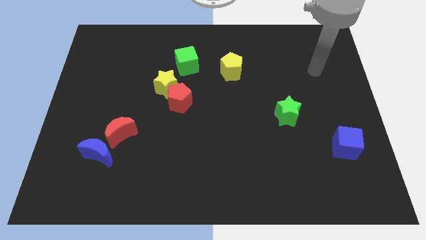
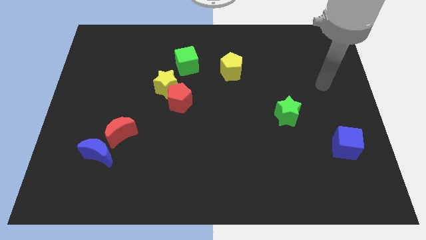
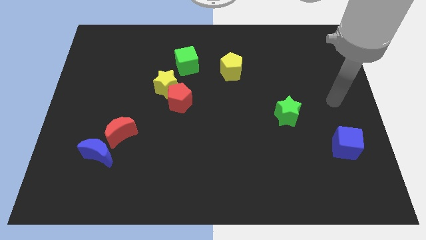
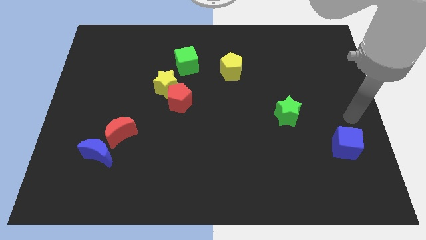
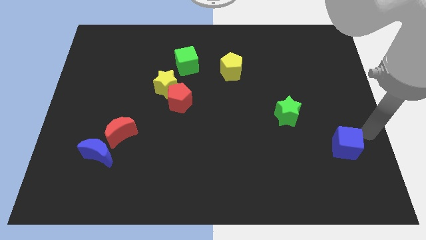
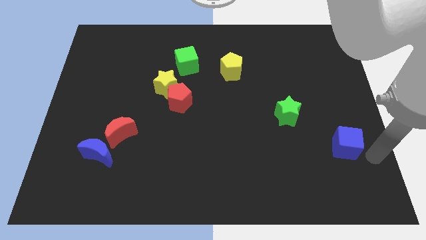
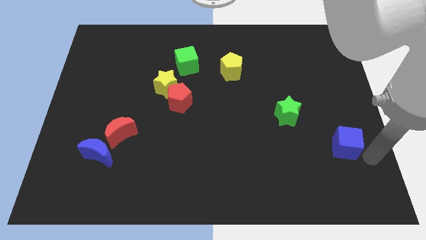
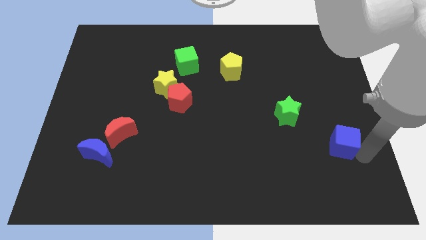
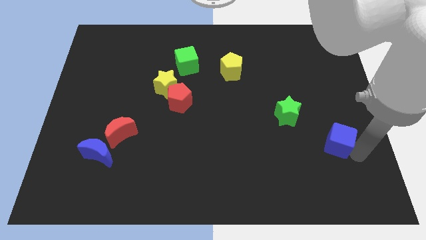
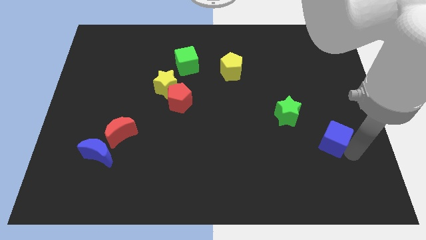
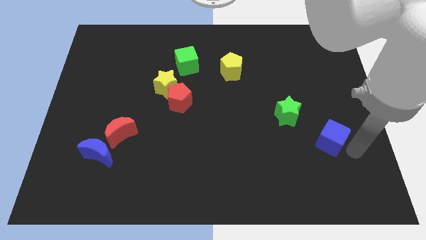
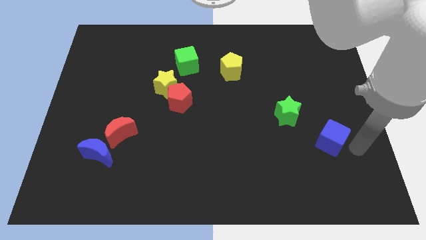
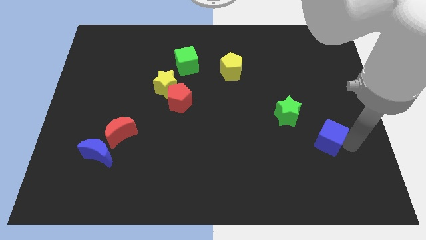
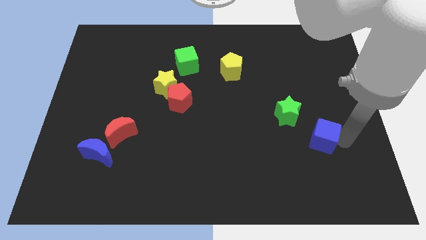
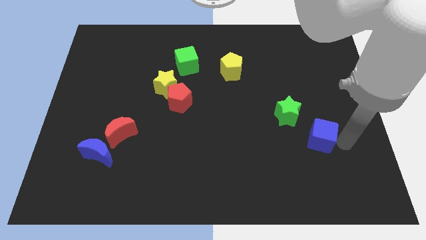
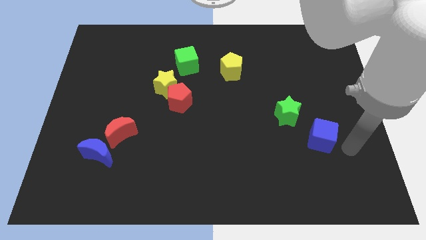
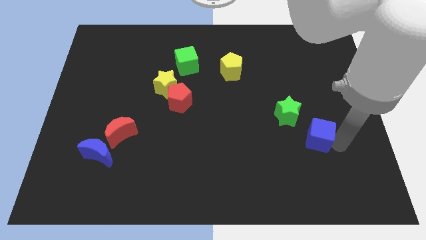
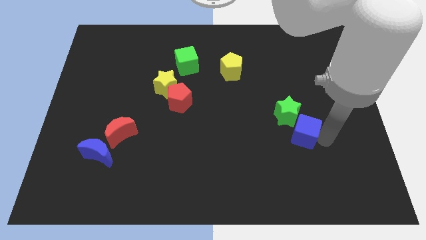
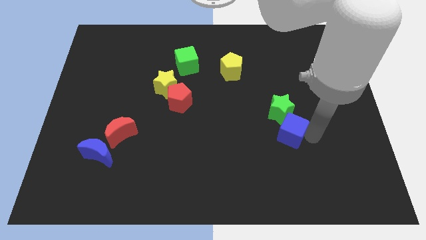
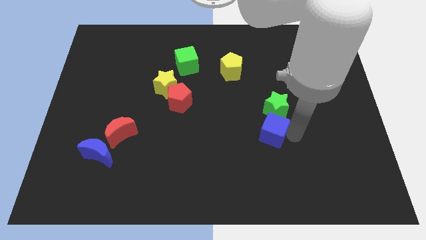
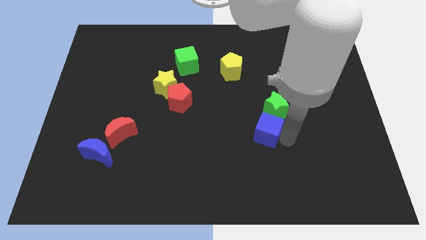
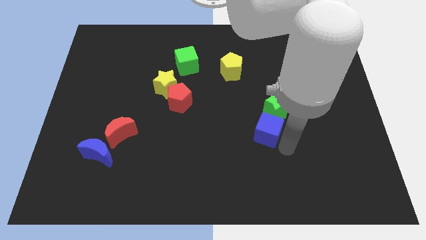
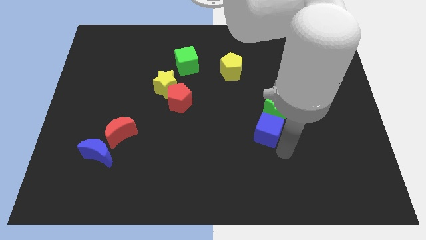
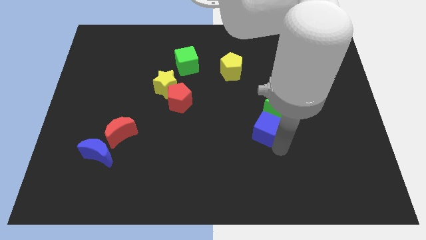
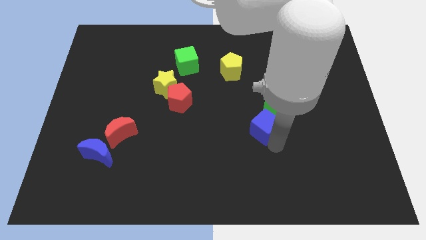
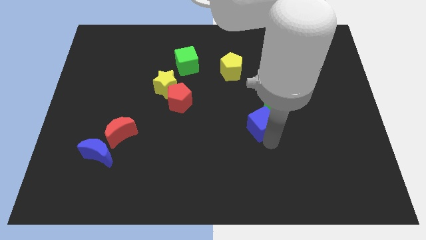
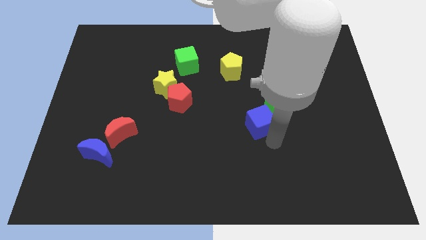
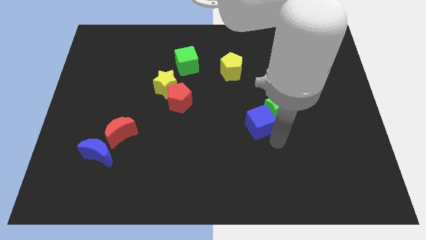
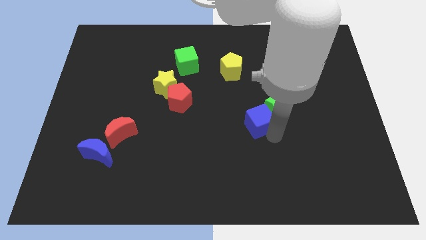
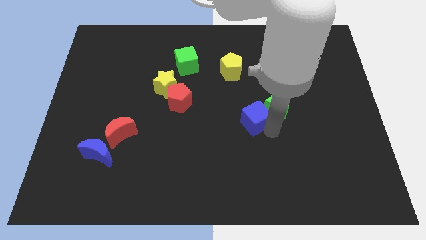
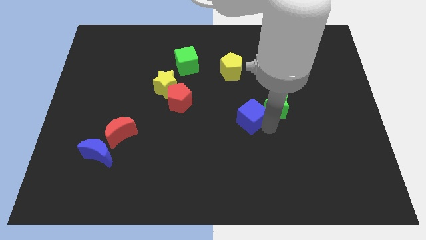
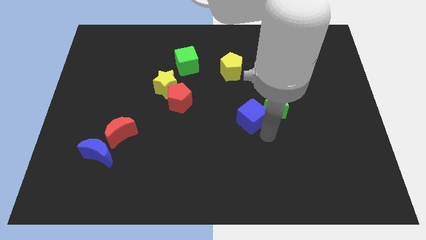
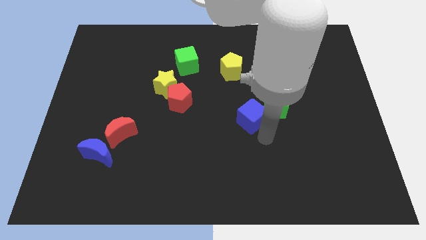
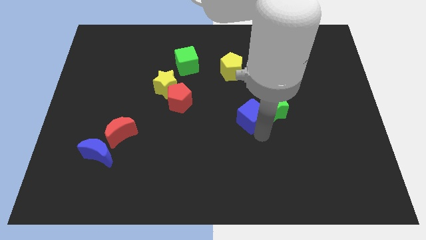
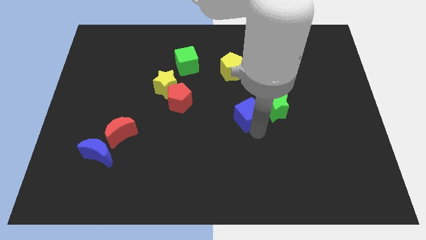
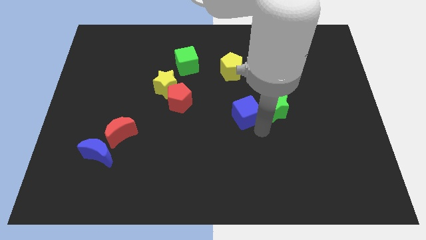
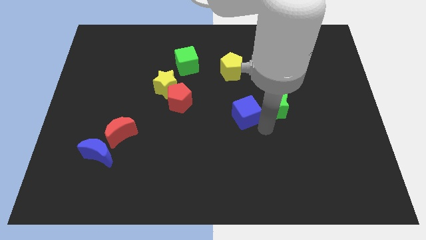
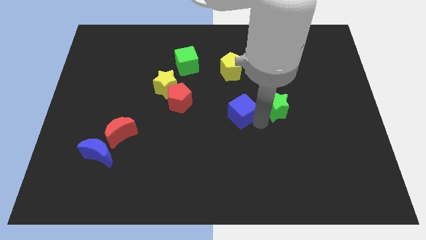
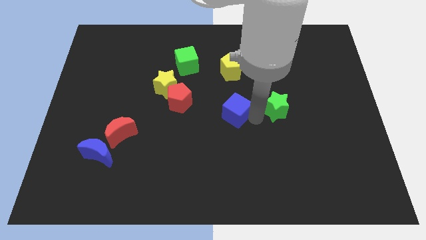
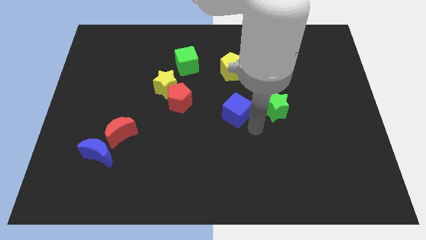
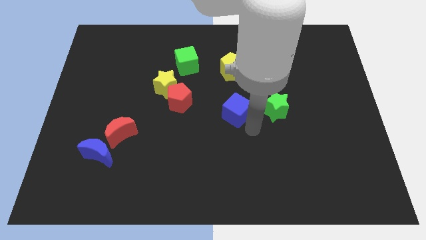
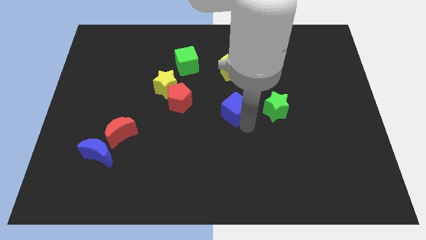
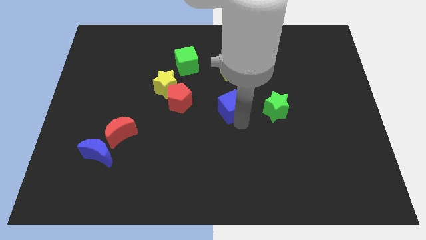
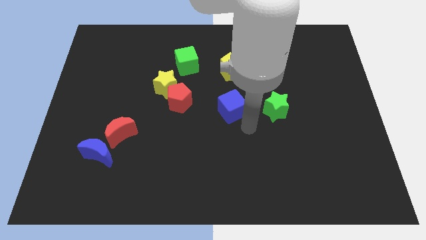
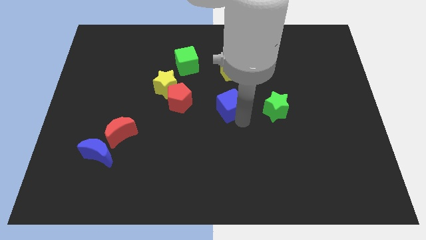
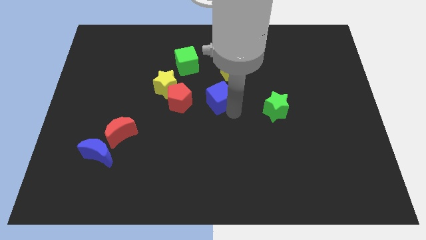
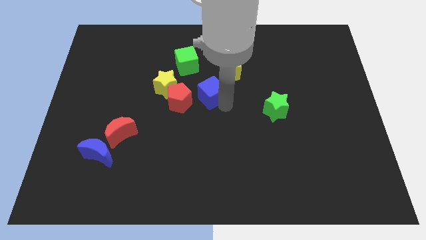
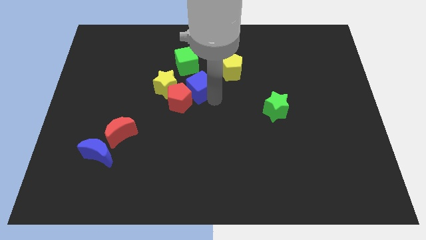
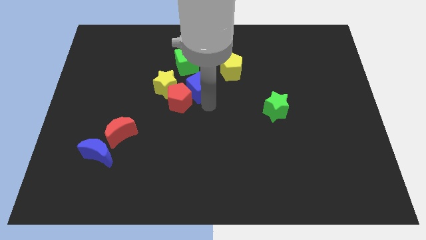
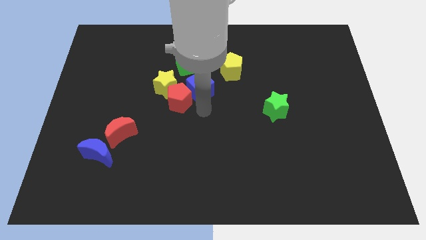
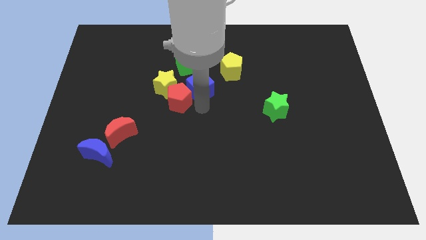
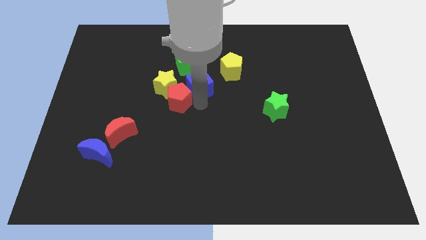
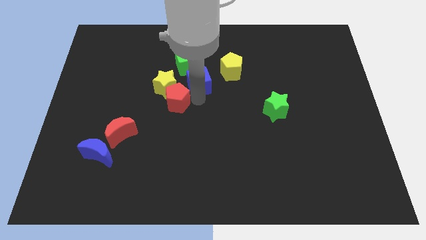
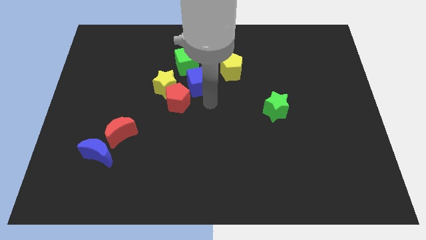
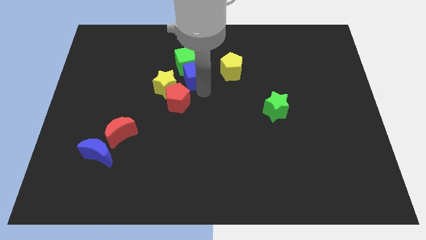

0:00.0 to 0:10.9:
move the blue cube next to the green cube

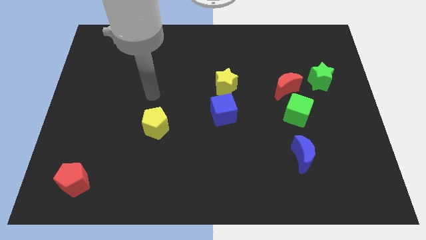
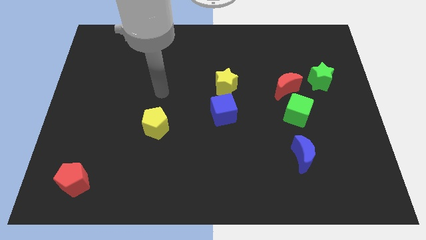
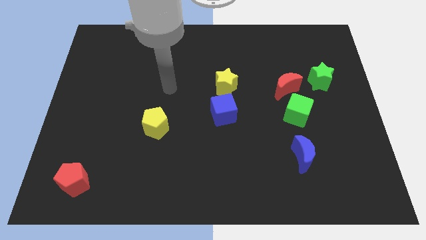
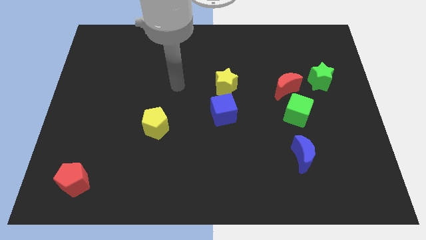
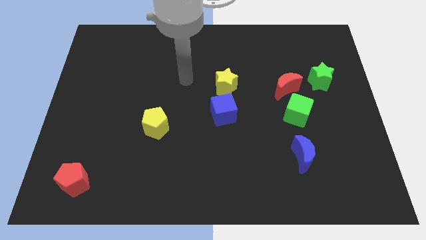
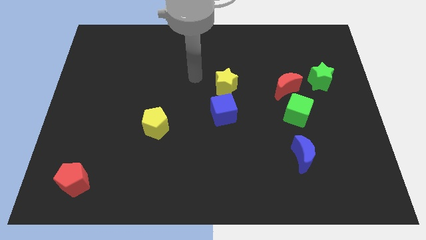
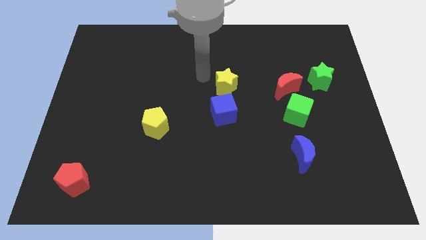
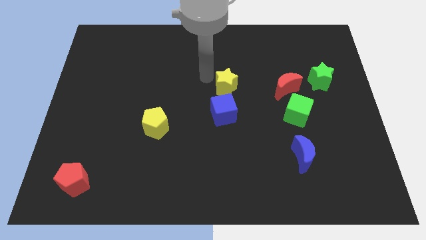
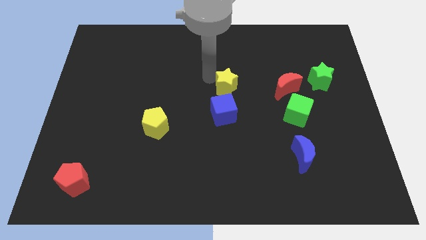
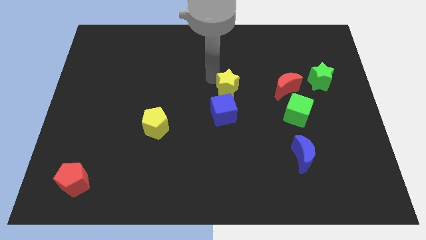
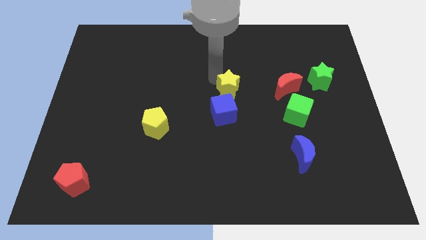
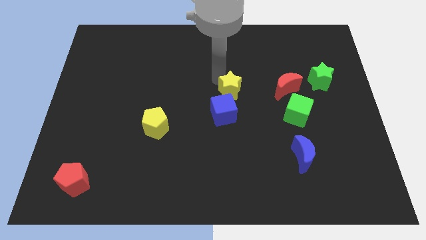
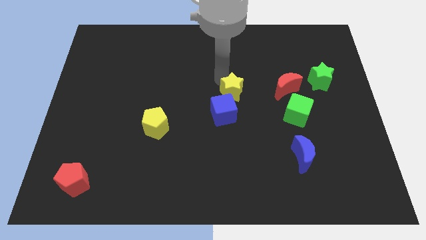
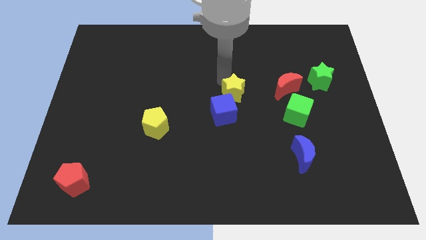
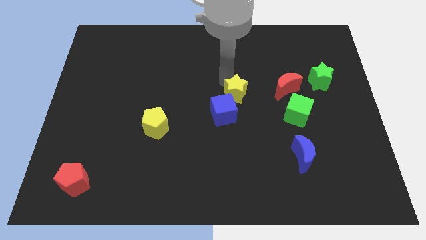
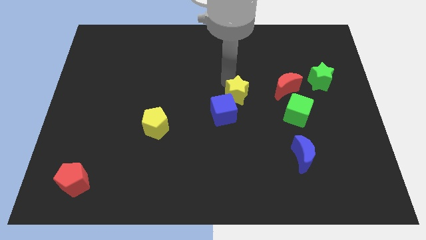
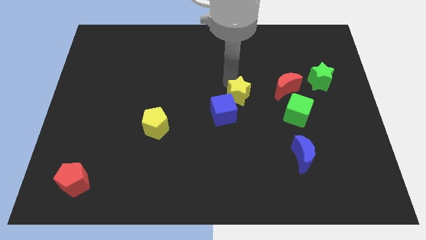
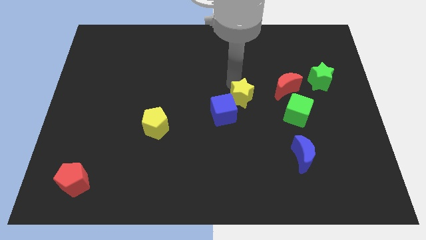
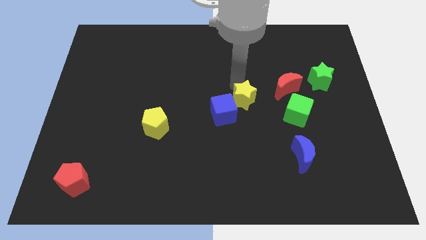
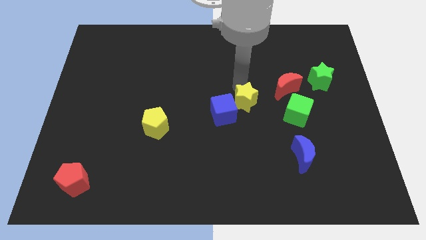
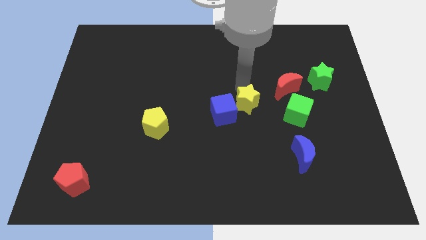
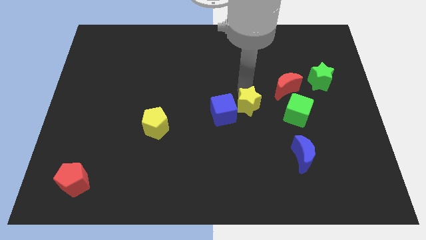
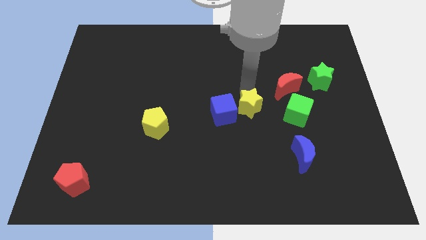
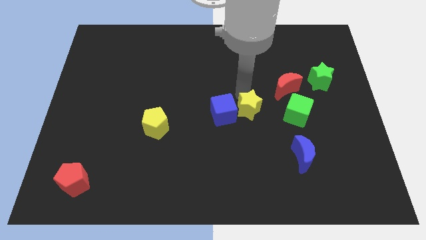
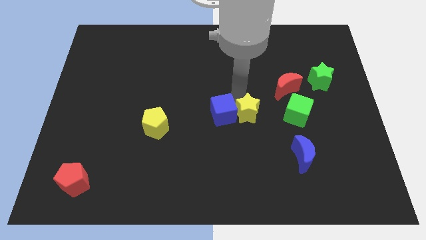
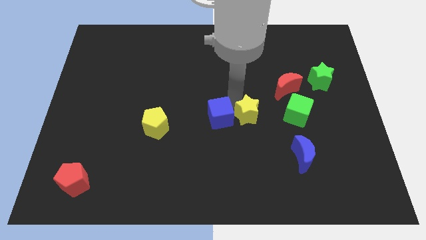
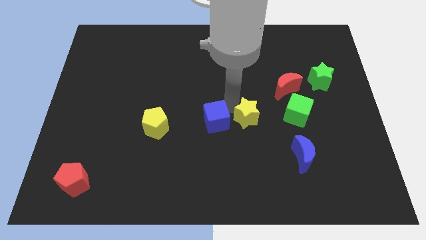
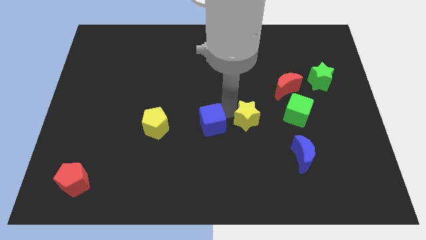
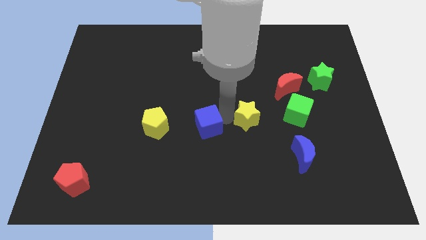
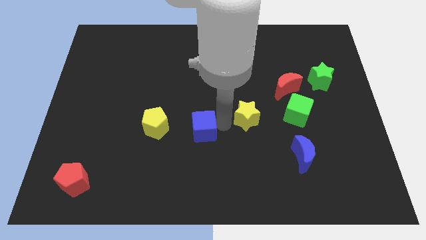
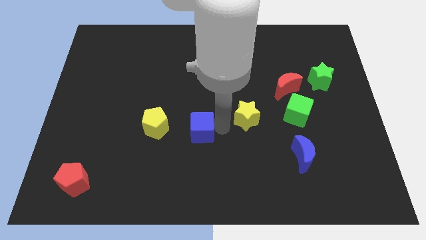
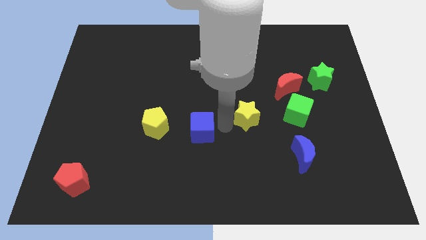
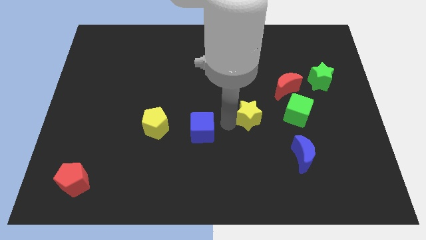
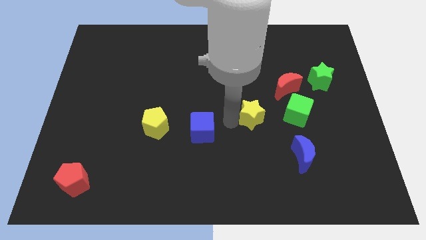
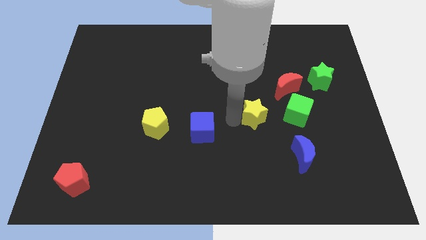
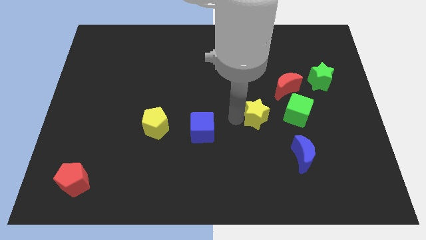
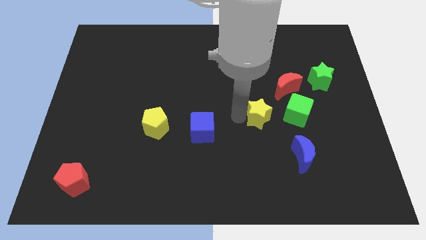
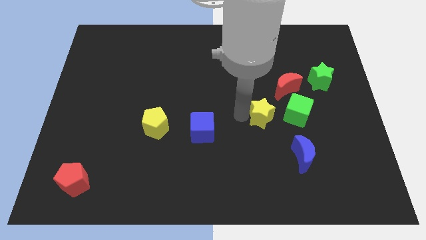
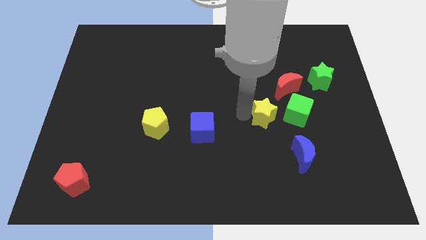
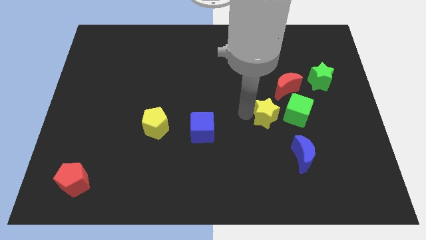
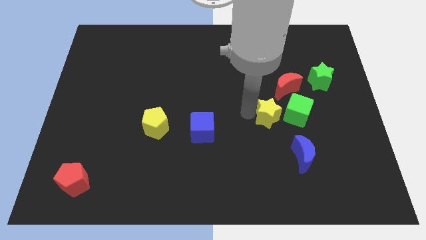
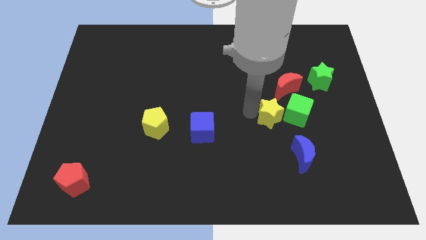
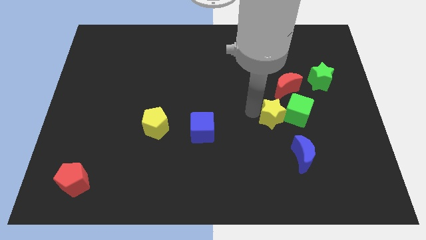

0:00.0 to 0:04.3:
slide the yellow star close to the green cube
